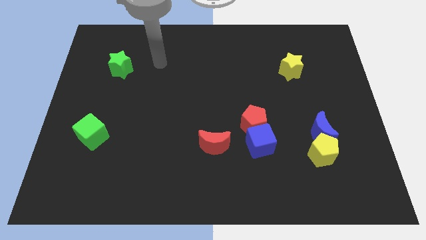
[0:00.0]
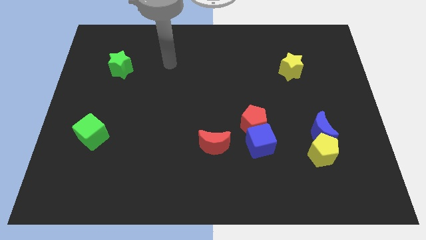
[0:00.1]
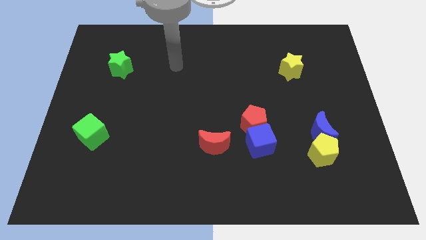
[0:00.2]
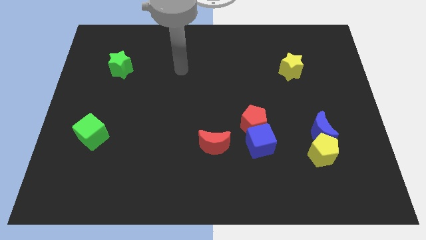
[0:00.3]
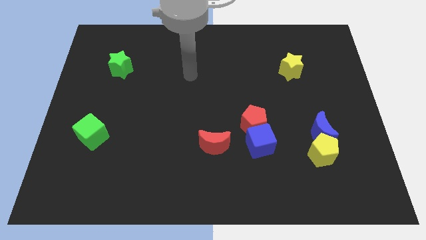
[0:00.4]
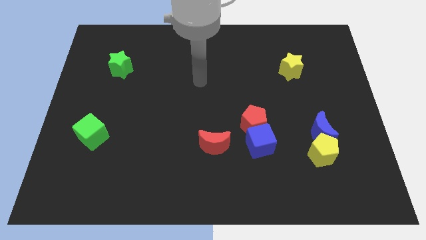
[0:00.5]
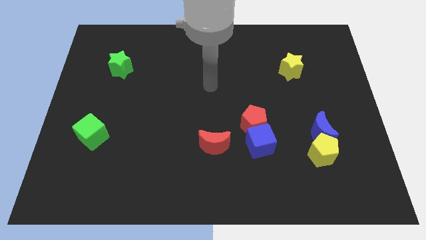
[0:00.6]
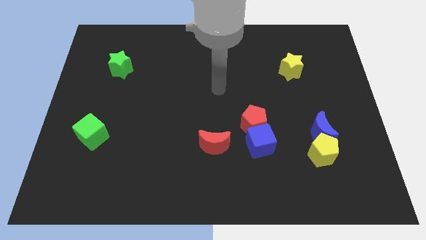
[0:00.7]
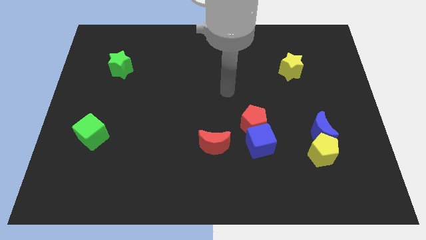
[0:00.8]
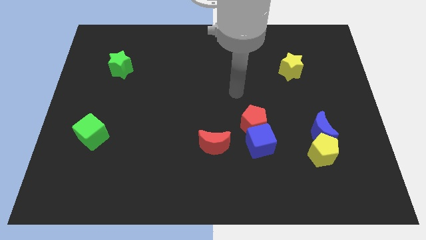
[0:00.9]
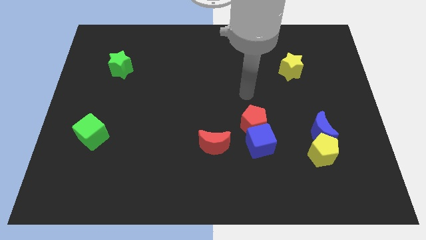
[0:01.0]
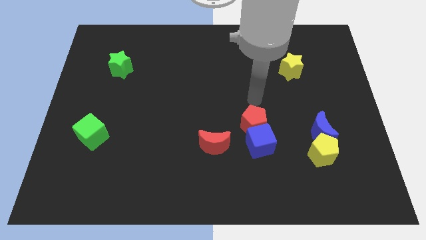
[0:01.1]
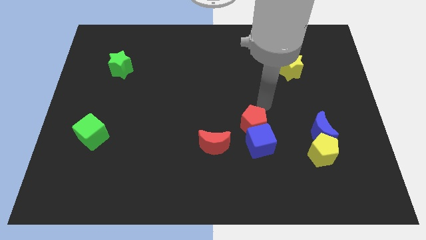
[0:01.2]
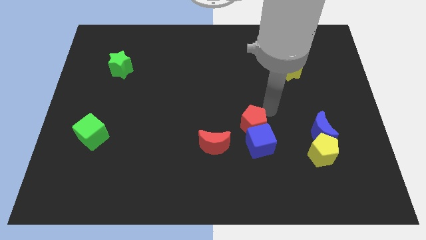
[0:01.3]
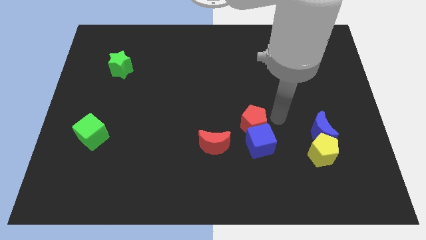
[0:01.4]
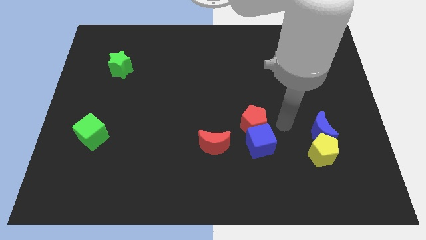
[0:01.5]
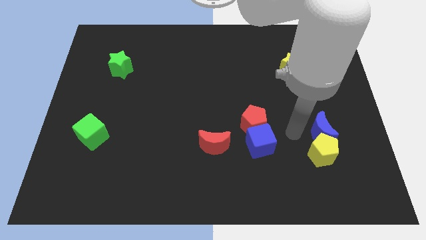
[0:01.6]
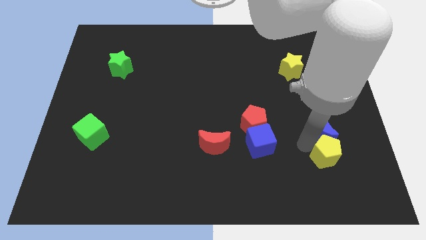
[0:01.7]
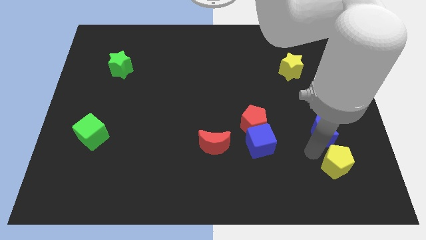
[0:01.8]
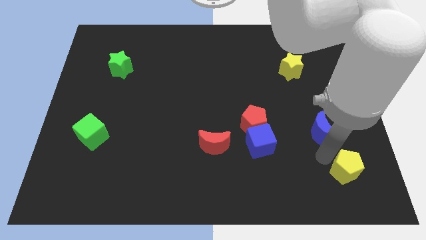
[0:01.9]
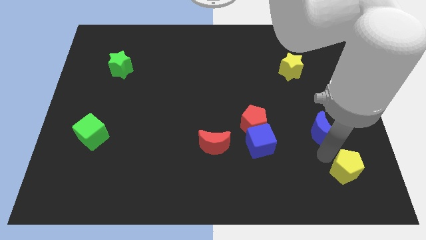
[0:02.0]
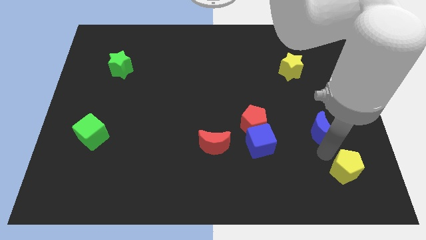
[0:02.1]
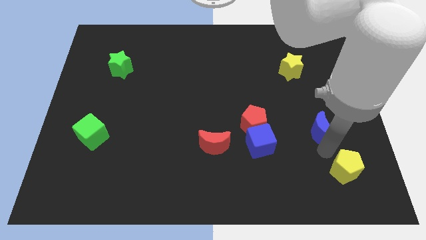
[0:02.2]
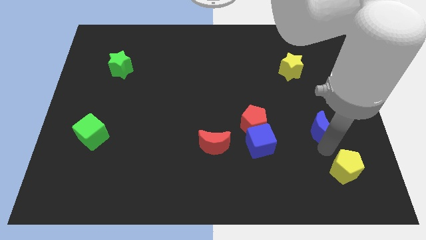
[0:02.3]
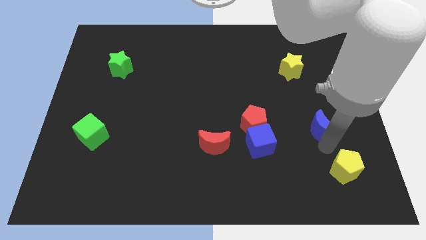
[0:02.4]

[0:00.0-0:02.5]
move the blue moon away from the yellow pentagon

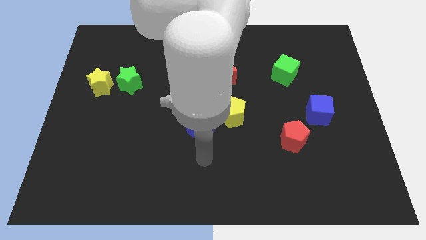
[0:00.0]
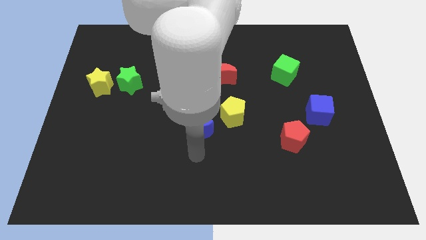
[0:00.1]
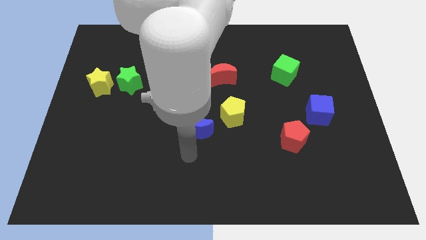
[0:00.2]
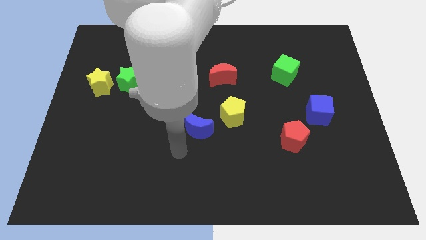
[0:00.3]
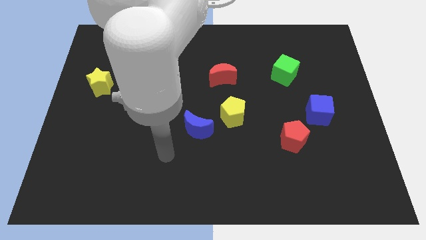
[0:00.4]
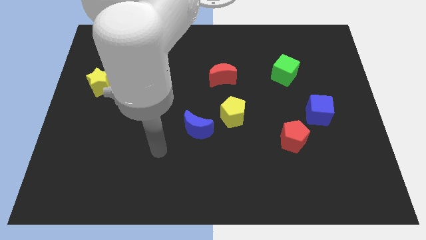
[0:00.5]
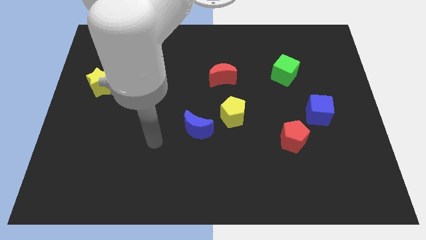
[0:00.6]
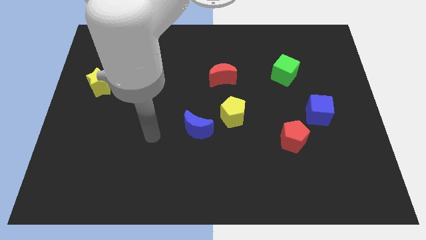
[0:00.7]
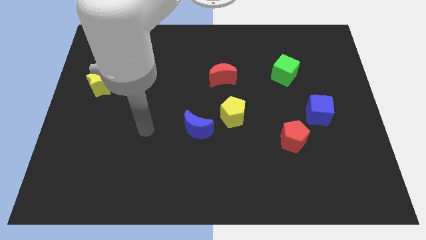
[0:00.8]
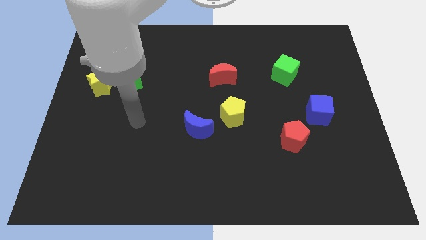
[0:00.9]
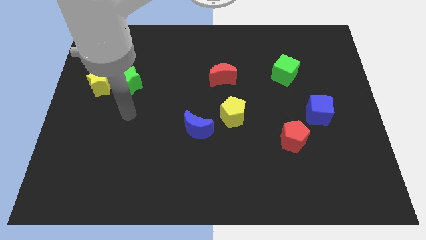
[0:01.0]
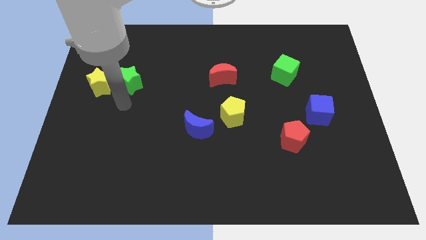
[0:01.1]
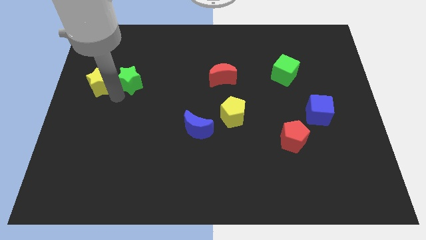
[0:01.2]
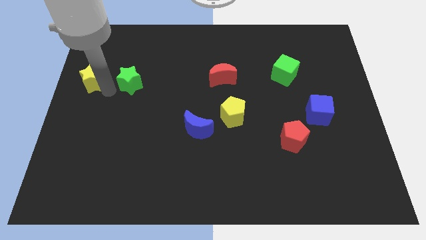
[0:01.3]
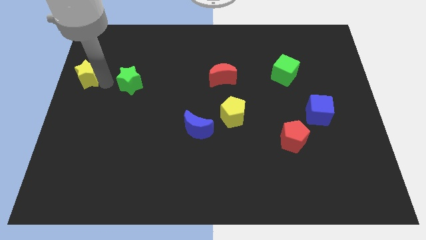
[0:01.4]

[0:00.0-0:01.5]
separate the green star from the yellow star

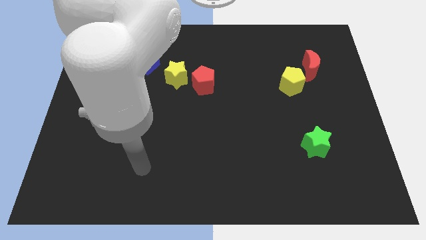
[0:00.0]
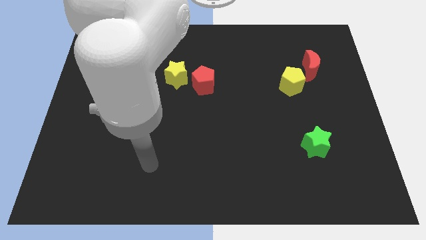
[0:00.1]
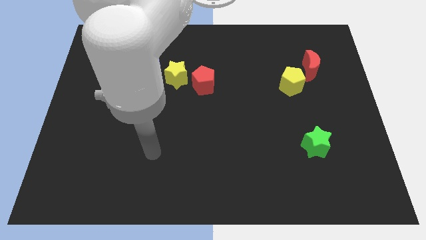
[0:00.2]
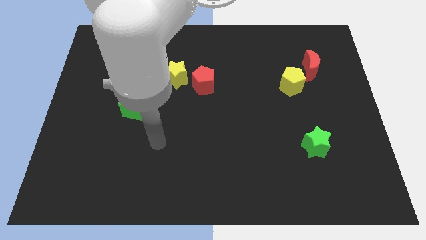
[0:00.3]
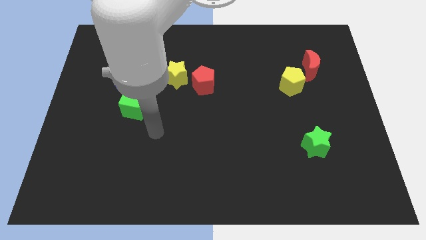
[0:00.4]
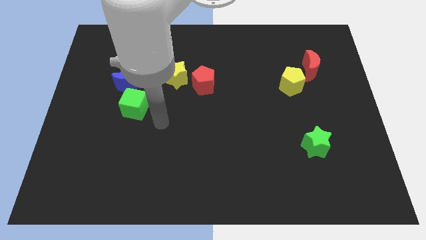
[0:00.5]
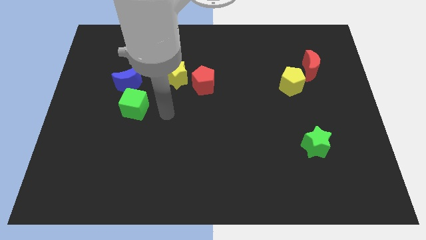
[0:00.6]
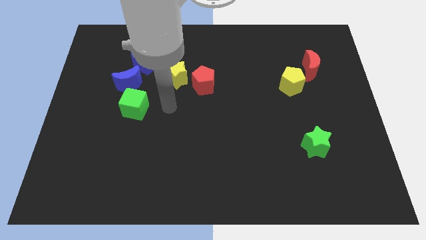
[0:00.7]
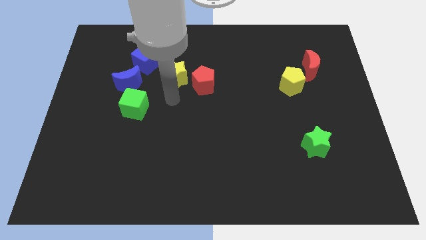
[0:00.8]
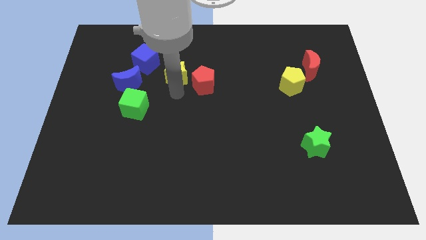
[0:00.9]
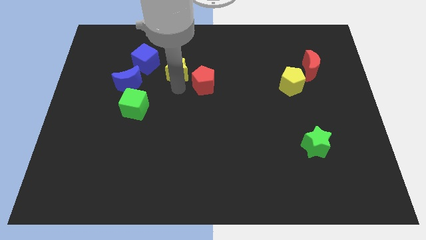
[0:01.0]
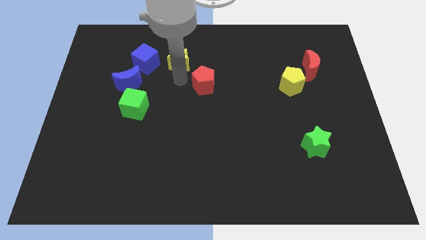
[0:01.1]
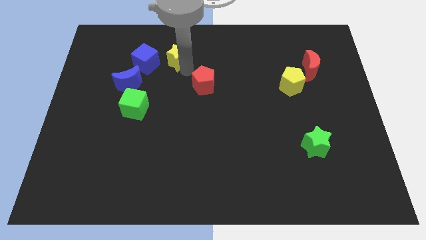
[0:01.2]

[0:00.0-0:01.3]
separate the red pentagon from the yellow star

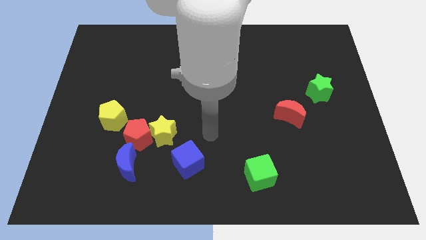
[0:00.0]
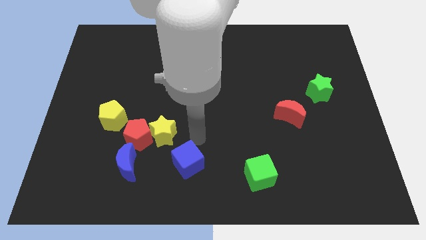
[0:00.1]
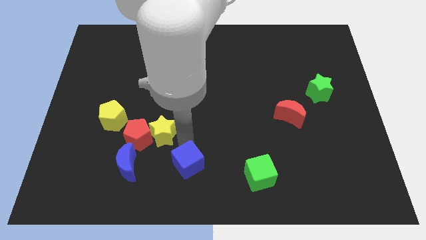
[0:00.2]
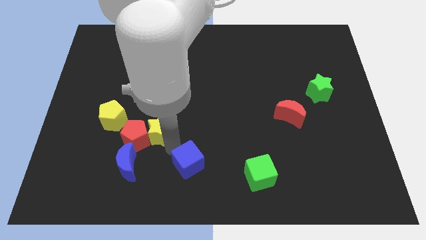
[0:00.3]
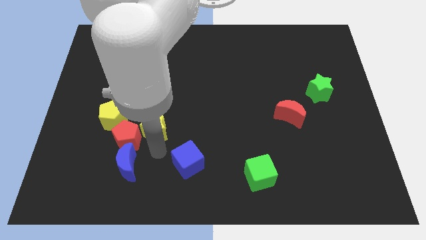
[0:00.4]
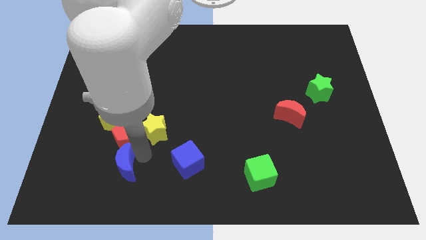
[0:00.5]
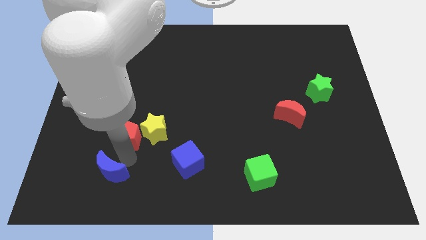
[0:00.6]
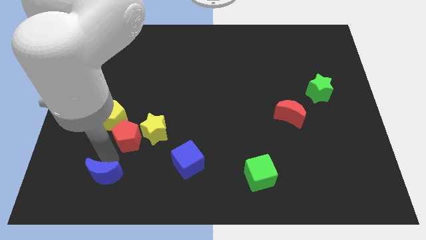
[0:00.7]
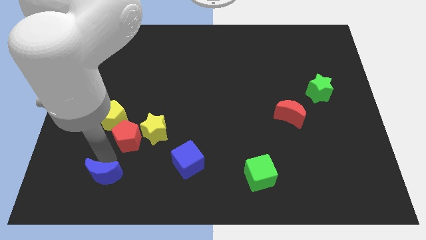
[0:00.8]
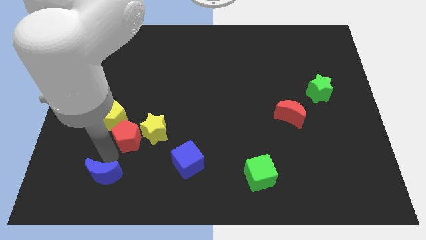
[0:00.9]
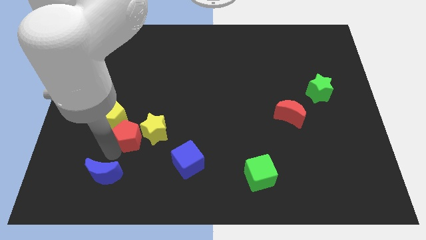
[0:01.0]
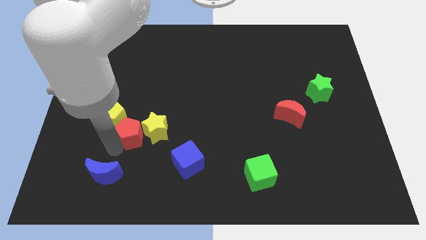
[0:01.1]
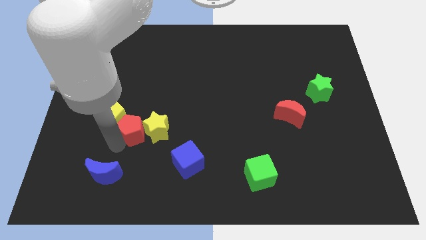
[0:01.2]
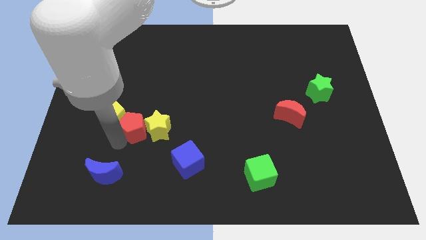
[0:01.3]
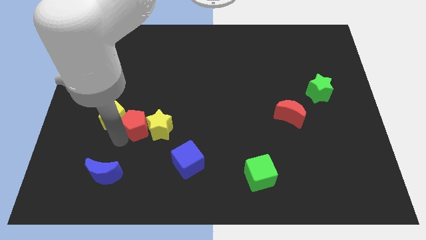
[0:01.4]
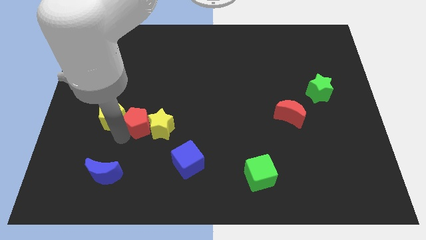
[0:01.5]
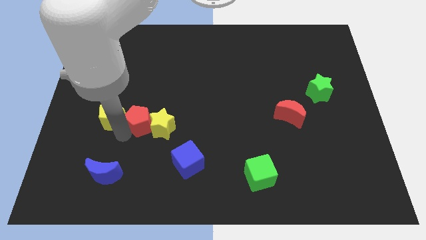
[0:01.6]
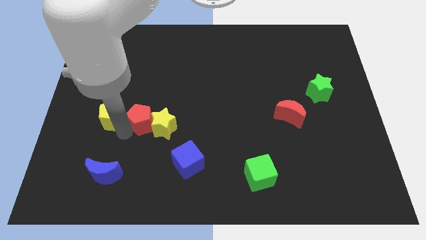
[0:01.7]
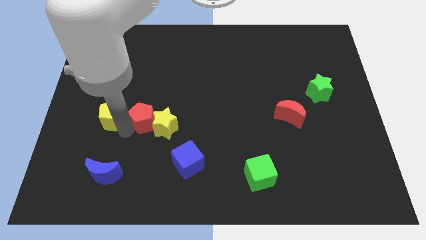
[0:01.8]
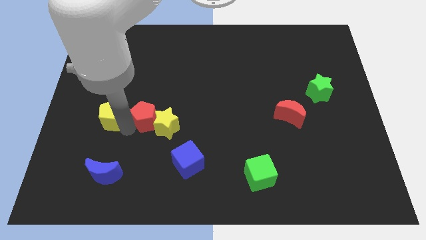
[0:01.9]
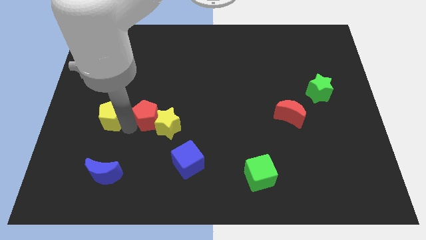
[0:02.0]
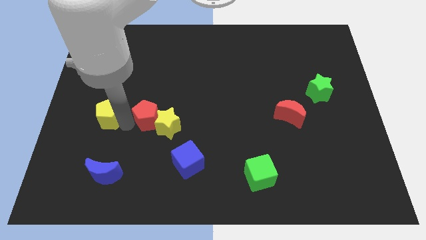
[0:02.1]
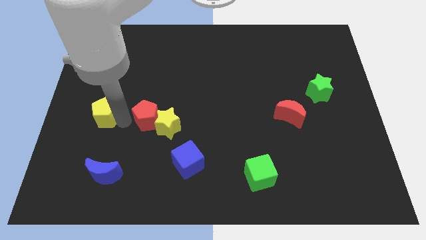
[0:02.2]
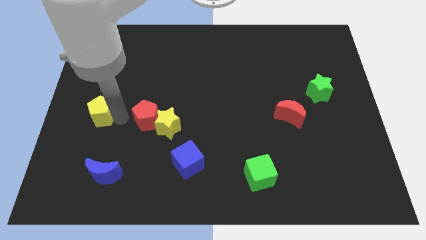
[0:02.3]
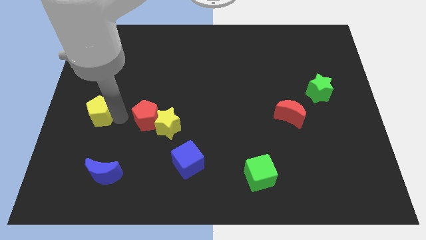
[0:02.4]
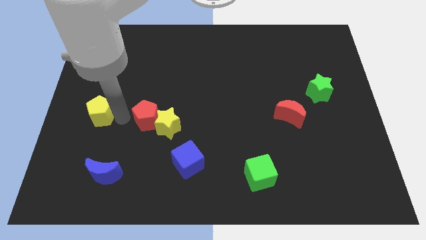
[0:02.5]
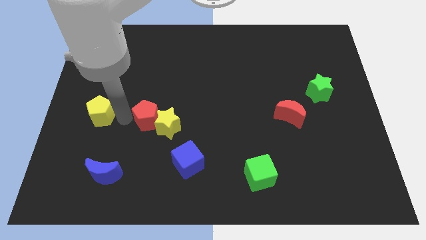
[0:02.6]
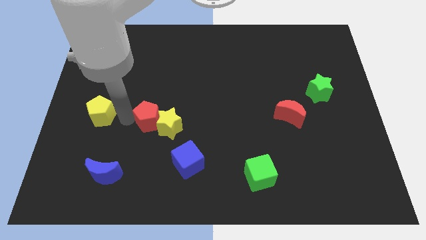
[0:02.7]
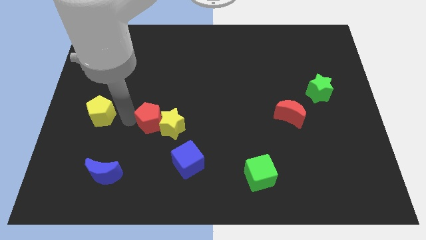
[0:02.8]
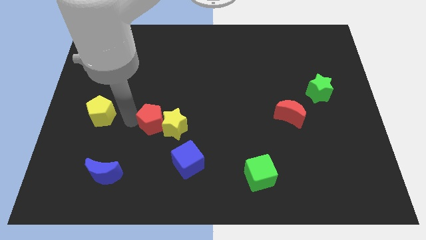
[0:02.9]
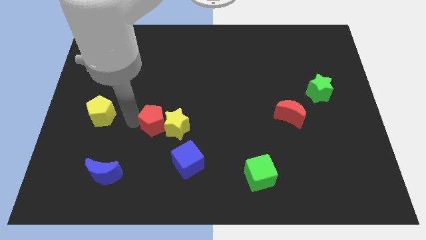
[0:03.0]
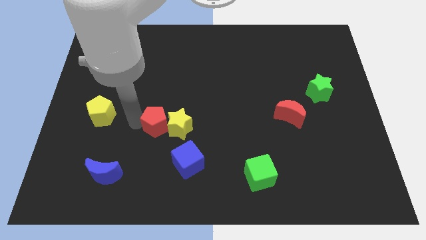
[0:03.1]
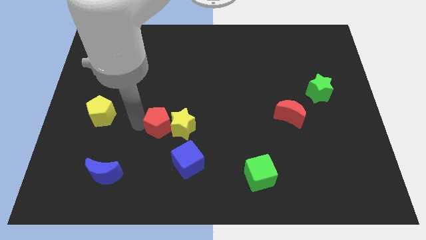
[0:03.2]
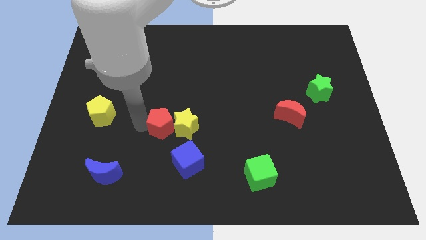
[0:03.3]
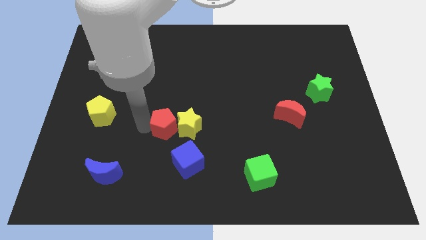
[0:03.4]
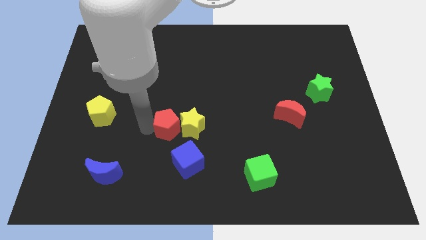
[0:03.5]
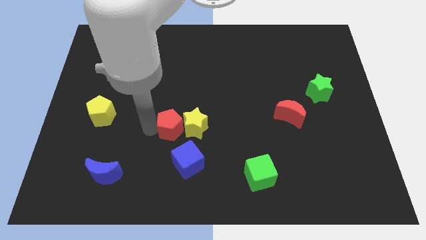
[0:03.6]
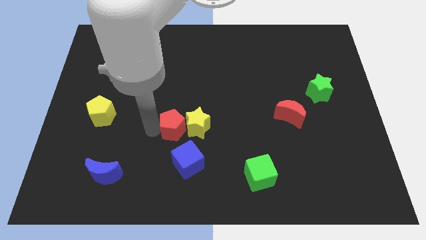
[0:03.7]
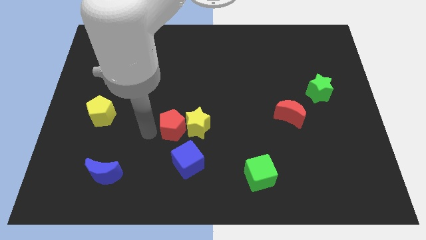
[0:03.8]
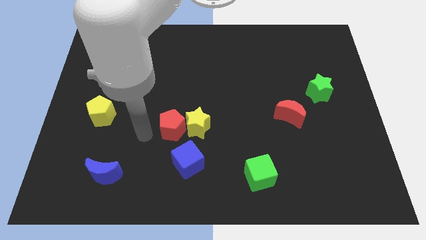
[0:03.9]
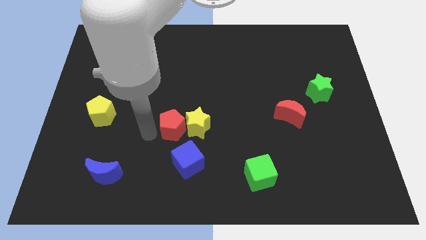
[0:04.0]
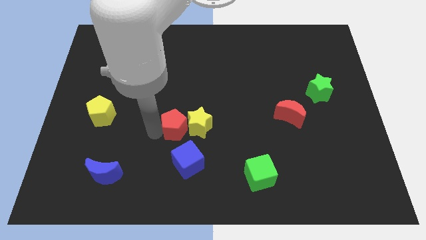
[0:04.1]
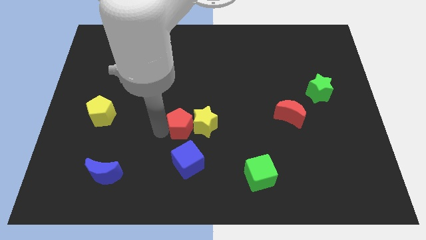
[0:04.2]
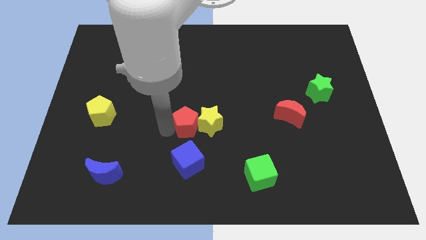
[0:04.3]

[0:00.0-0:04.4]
pull the red pentagon apart from the yellow star, blue moon, and yellow pentagon
